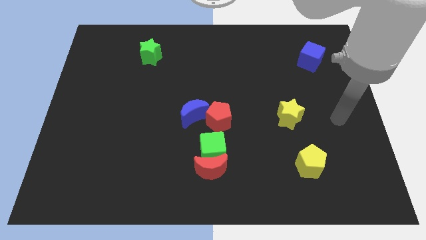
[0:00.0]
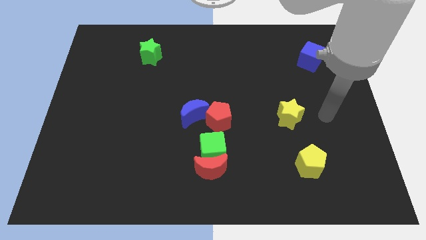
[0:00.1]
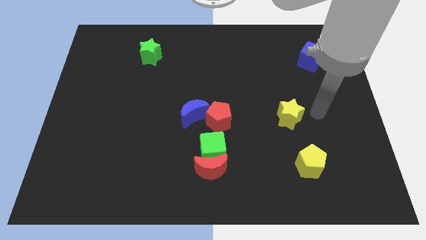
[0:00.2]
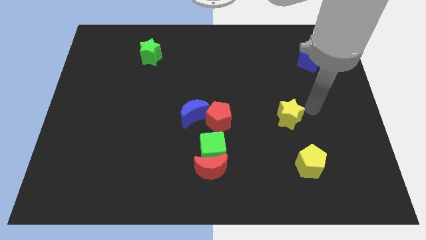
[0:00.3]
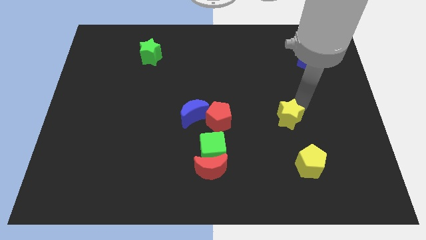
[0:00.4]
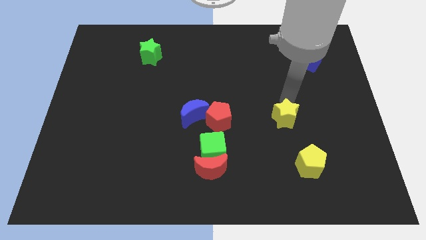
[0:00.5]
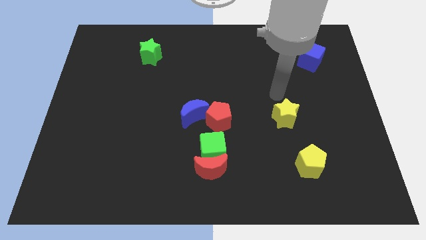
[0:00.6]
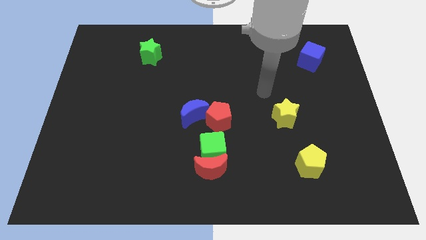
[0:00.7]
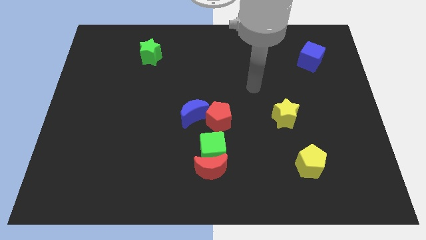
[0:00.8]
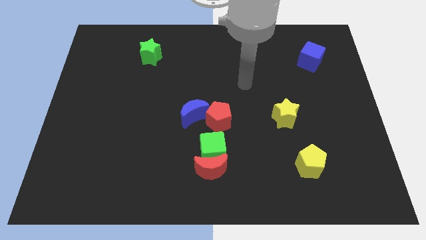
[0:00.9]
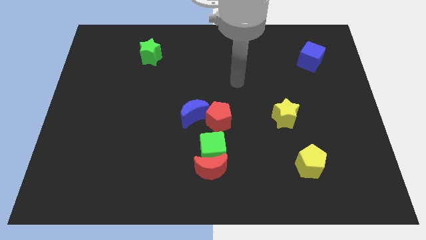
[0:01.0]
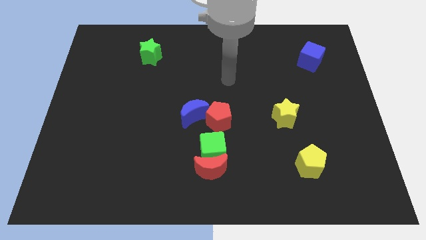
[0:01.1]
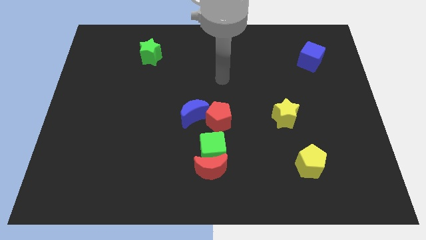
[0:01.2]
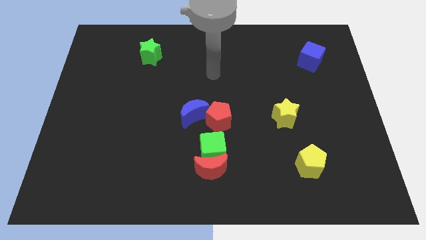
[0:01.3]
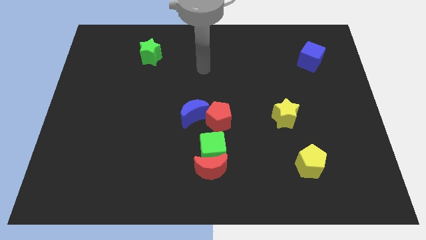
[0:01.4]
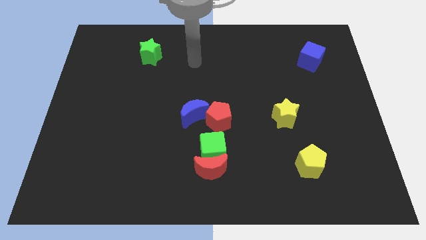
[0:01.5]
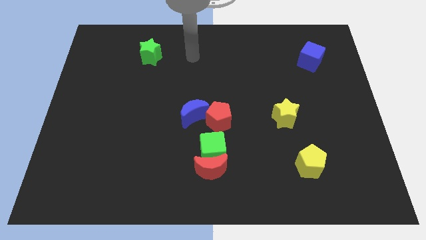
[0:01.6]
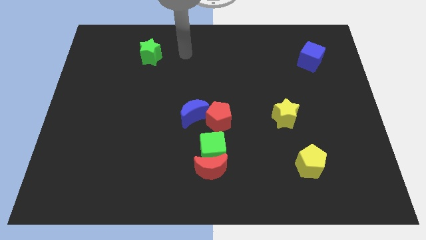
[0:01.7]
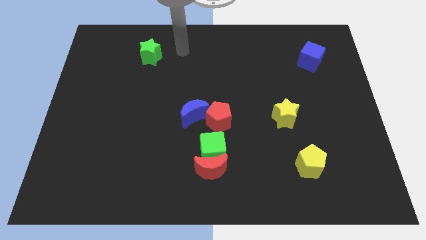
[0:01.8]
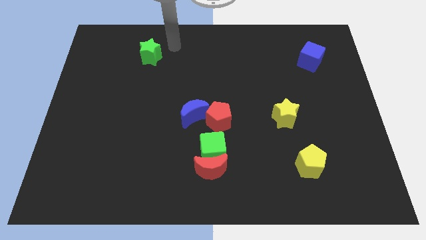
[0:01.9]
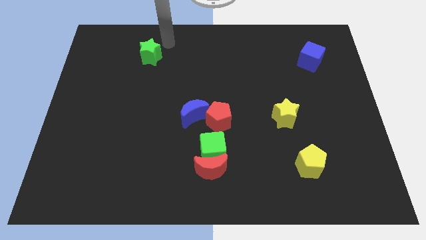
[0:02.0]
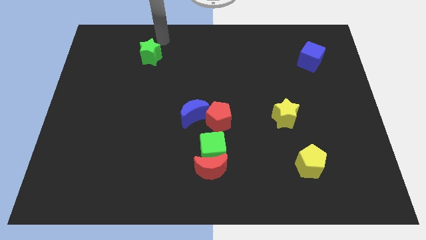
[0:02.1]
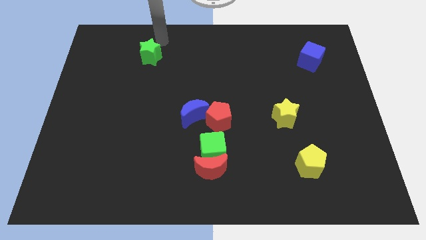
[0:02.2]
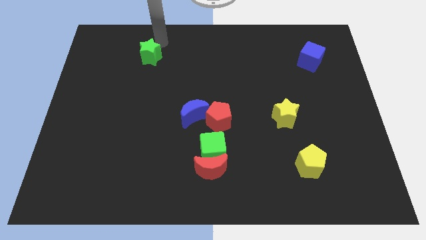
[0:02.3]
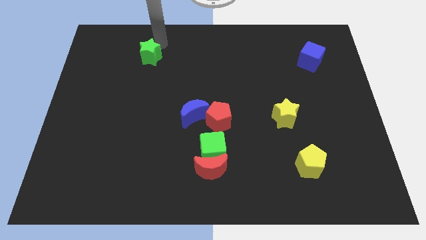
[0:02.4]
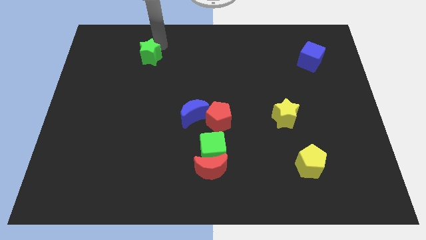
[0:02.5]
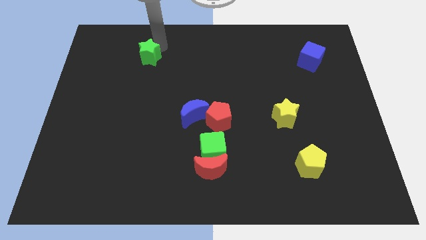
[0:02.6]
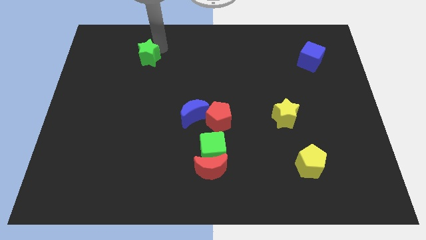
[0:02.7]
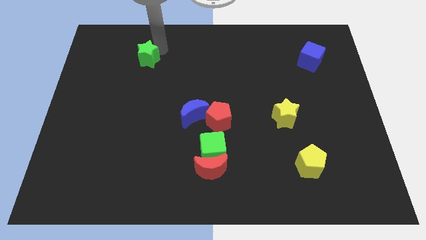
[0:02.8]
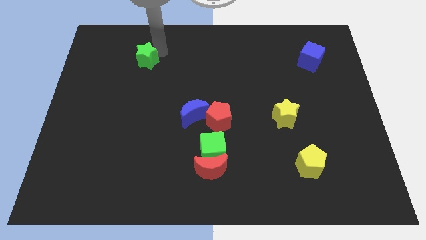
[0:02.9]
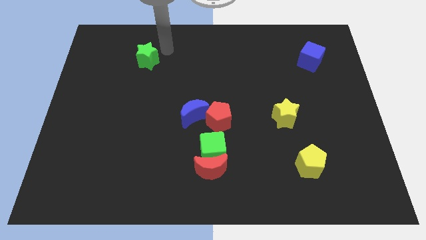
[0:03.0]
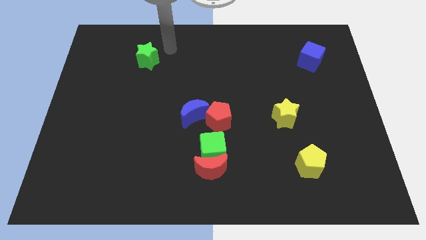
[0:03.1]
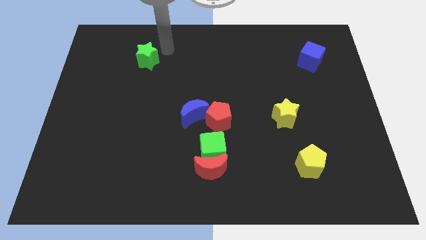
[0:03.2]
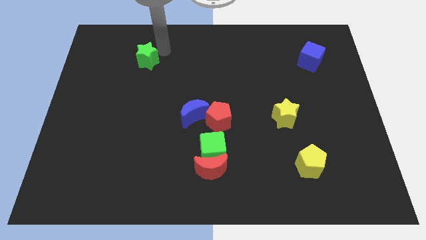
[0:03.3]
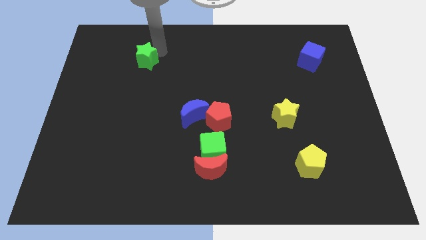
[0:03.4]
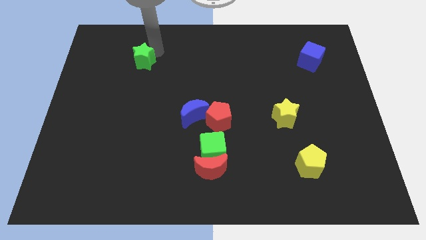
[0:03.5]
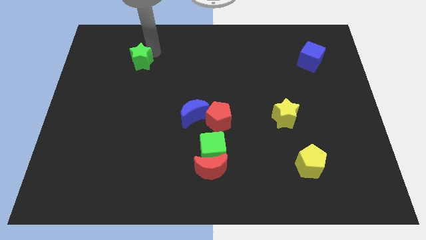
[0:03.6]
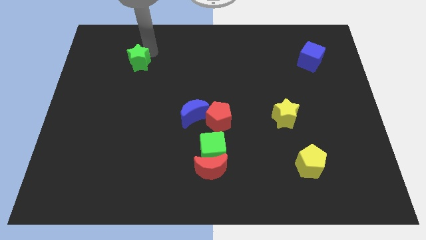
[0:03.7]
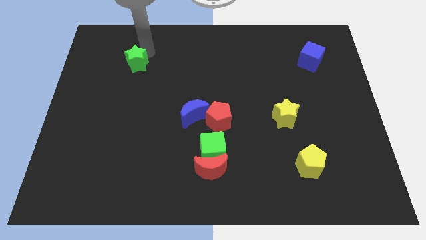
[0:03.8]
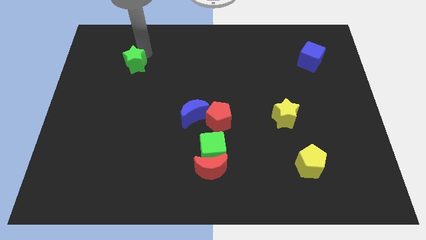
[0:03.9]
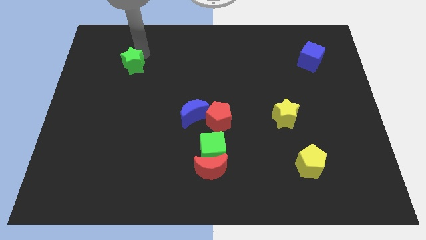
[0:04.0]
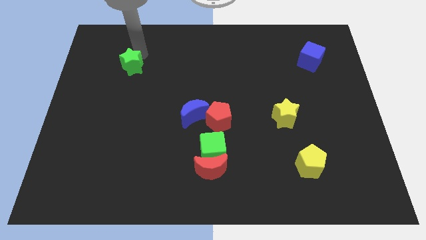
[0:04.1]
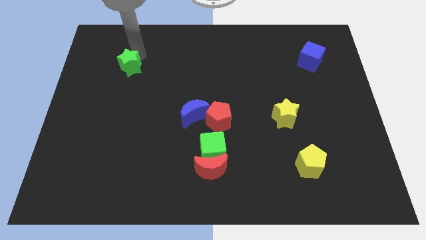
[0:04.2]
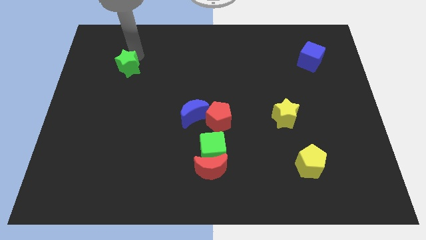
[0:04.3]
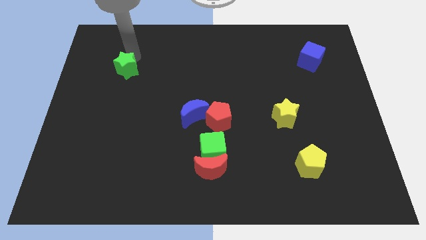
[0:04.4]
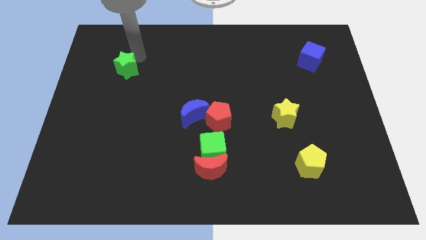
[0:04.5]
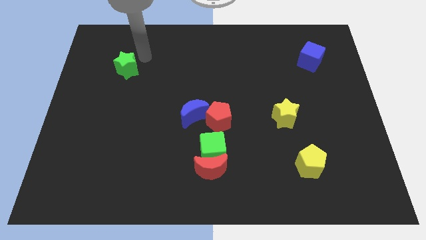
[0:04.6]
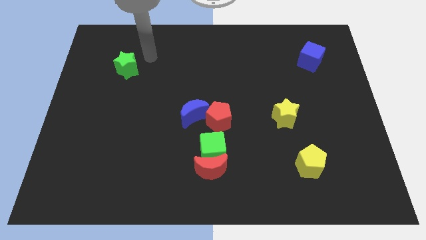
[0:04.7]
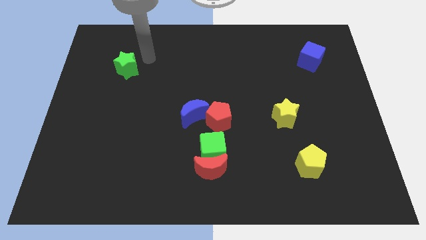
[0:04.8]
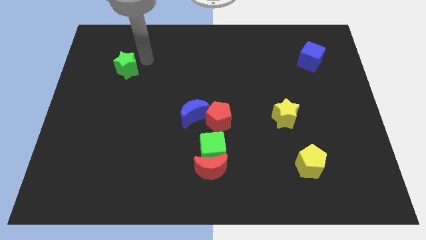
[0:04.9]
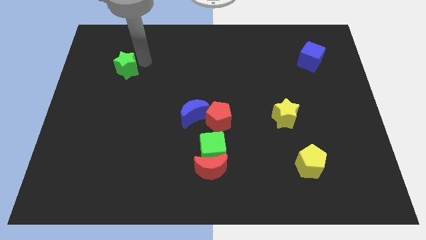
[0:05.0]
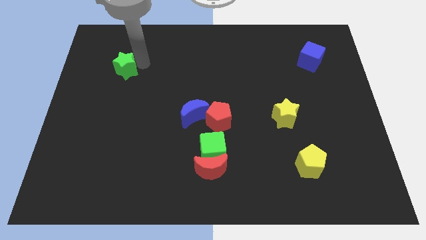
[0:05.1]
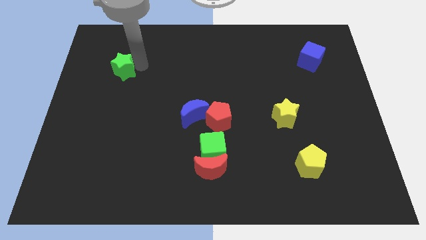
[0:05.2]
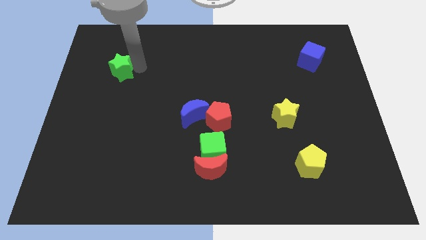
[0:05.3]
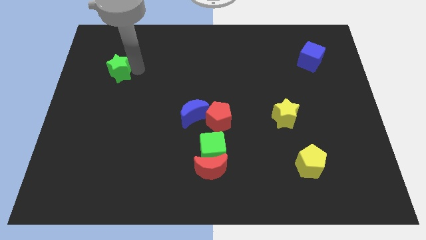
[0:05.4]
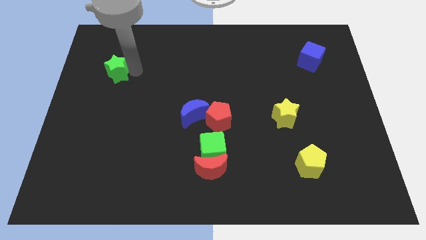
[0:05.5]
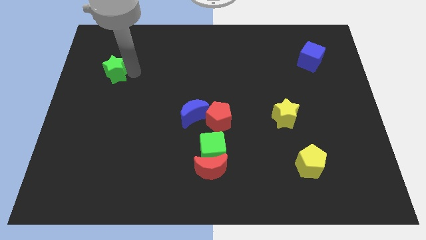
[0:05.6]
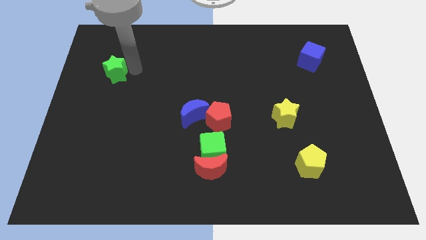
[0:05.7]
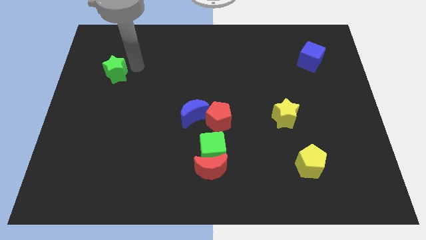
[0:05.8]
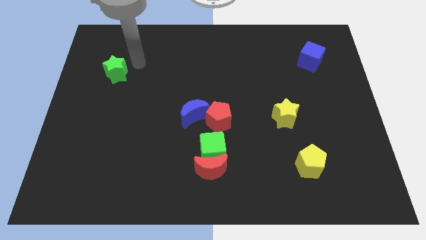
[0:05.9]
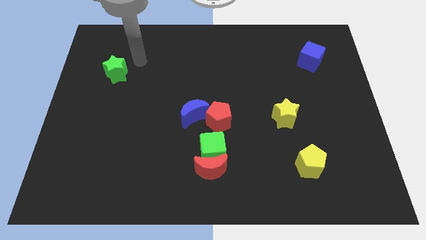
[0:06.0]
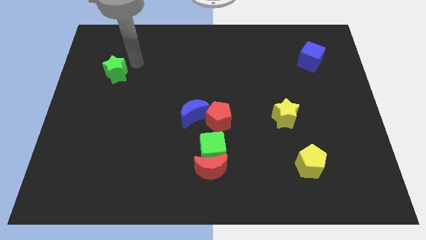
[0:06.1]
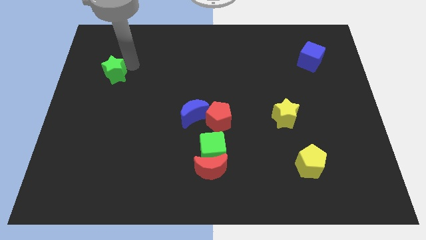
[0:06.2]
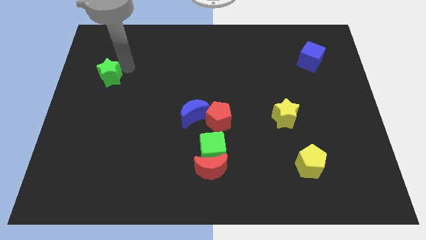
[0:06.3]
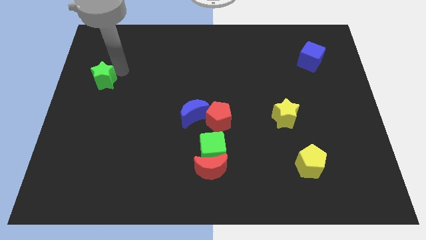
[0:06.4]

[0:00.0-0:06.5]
move the green star to the left side of the board
